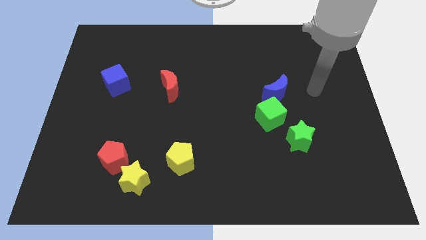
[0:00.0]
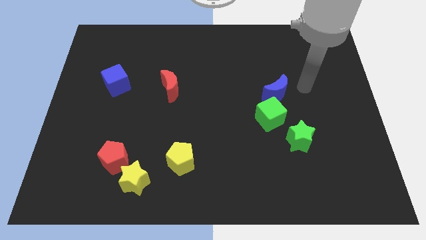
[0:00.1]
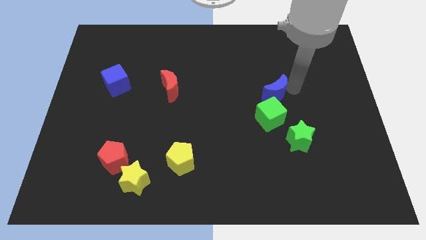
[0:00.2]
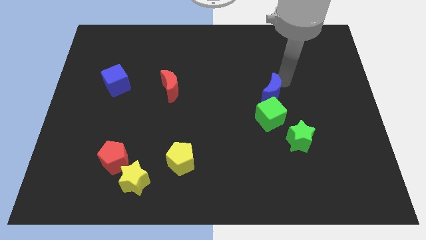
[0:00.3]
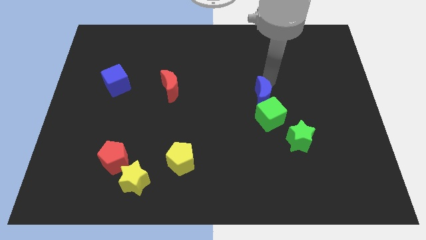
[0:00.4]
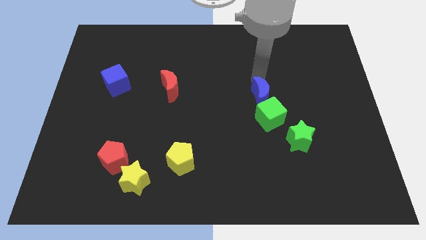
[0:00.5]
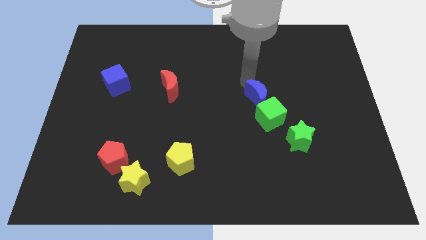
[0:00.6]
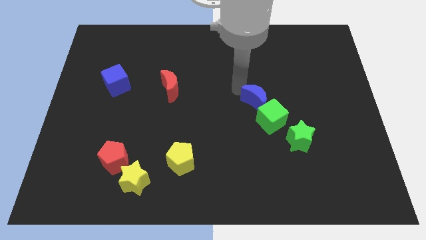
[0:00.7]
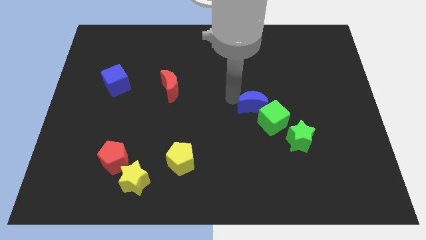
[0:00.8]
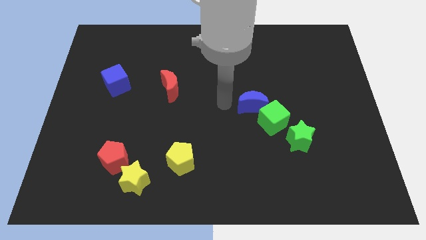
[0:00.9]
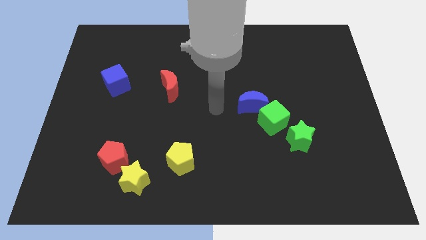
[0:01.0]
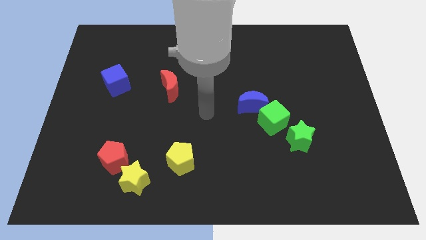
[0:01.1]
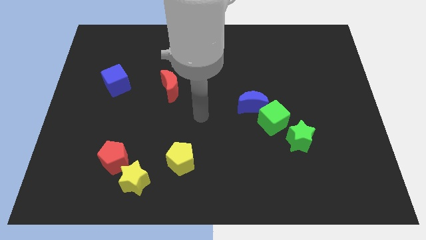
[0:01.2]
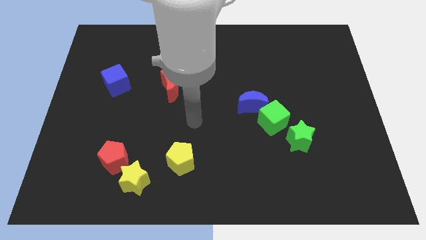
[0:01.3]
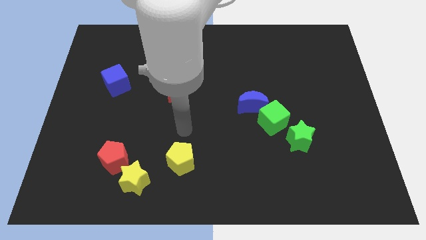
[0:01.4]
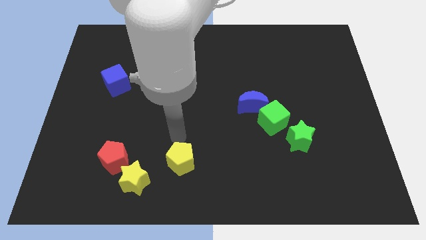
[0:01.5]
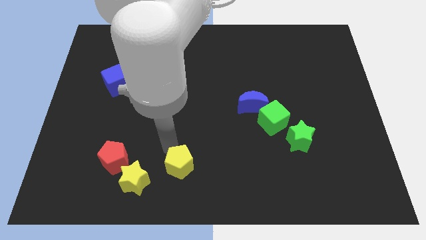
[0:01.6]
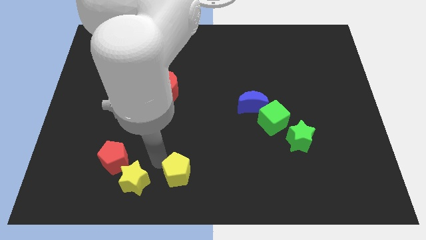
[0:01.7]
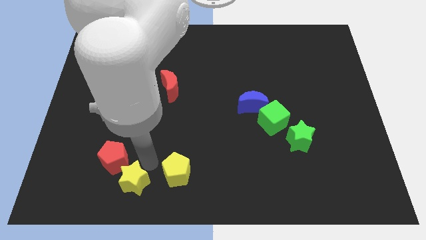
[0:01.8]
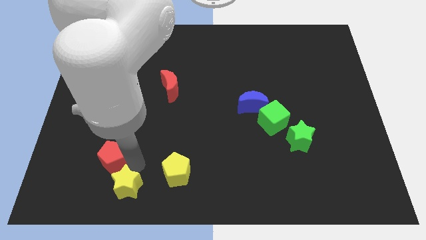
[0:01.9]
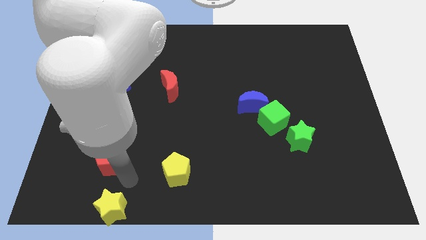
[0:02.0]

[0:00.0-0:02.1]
separate the red pentagon from the yellow star

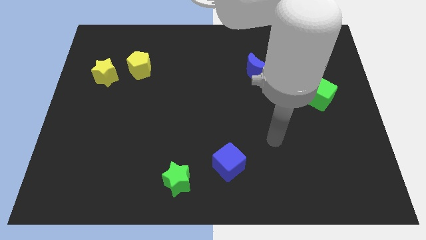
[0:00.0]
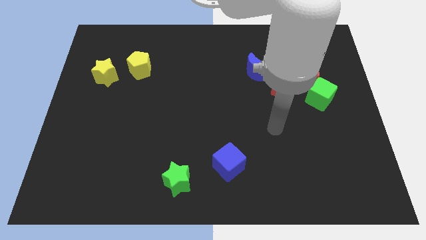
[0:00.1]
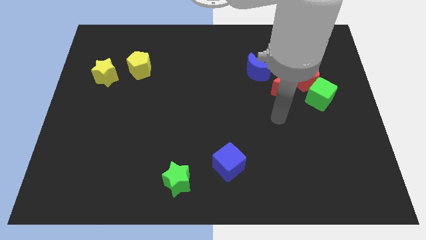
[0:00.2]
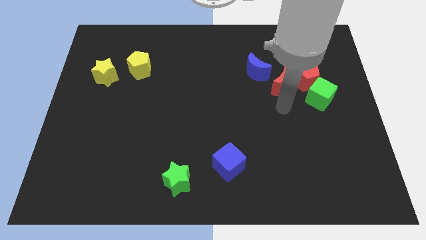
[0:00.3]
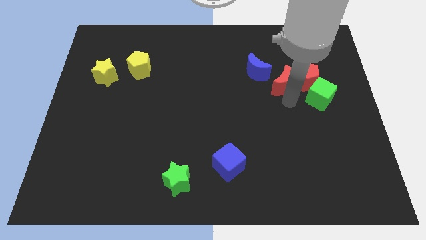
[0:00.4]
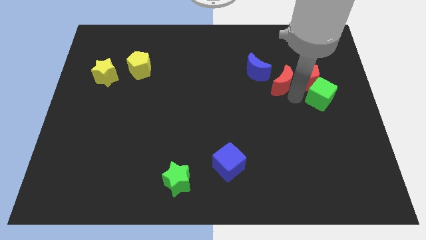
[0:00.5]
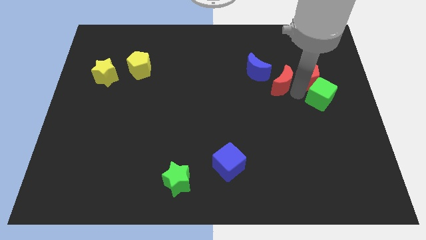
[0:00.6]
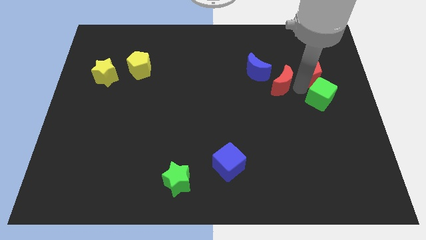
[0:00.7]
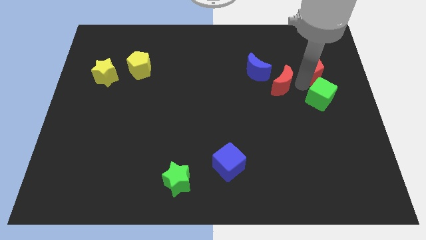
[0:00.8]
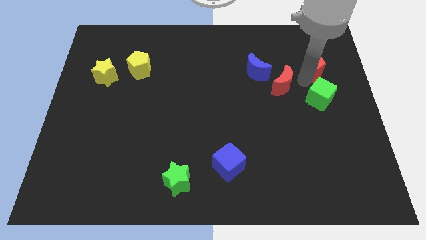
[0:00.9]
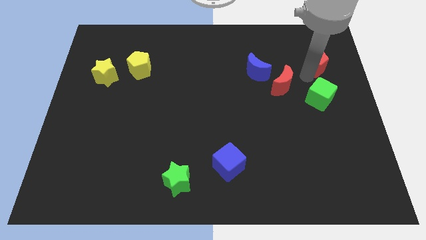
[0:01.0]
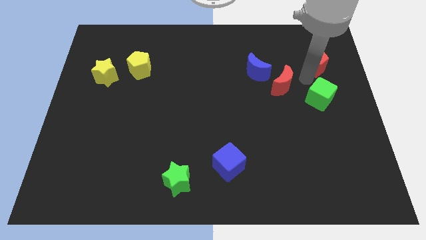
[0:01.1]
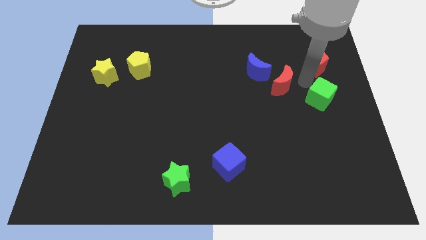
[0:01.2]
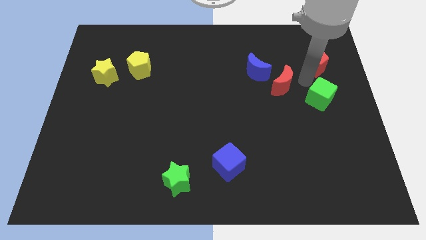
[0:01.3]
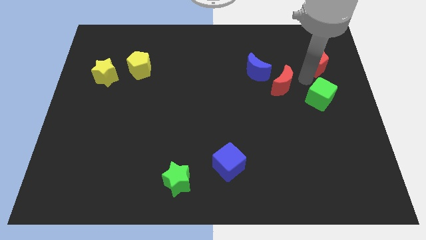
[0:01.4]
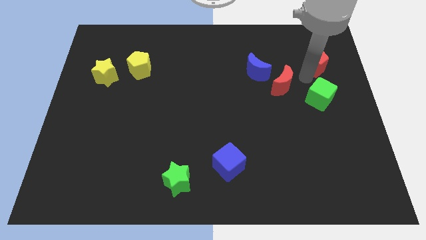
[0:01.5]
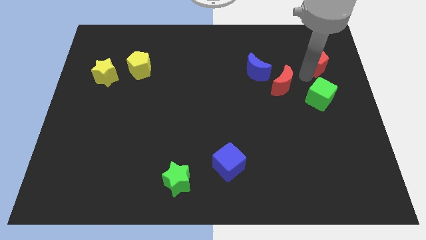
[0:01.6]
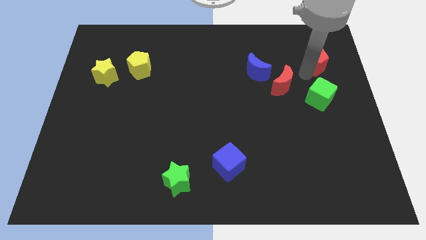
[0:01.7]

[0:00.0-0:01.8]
move the red pentagon away from the red moon and green cube

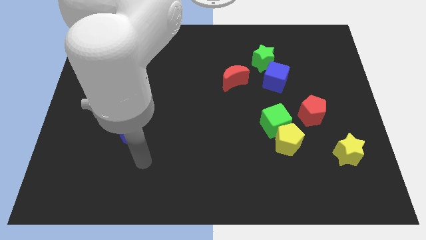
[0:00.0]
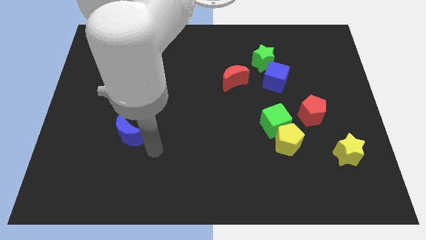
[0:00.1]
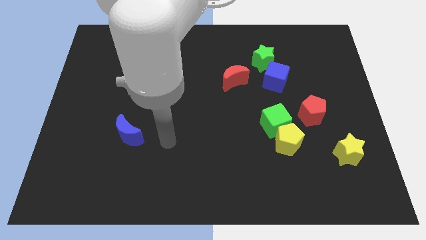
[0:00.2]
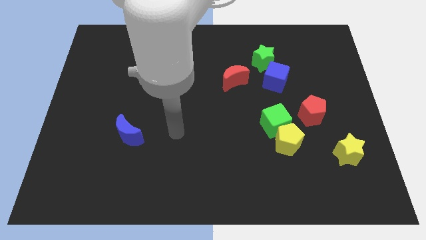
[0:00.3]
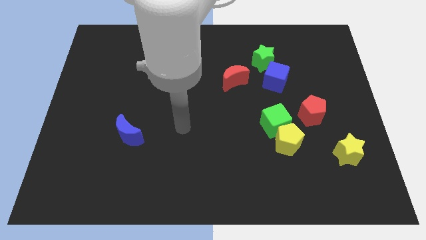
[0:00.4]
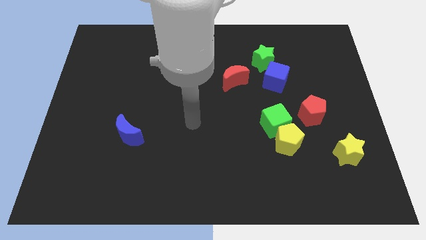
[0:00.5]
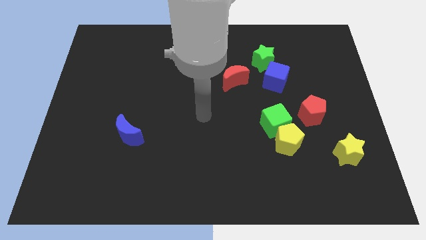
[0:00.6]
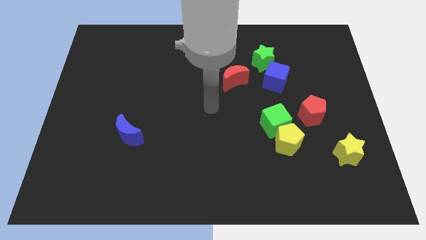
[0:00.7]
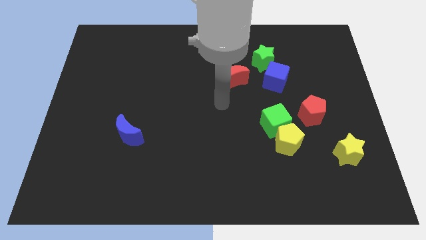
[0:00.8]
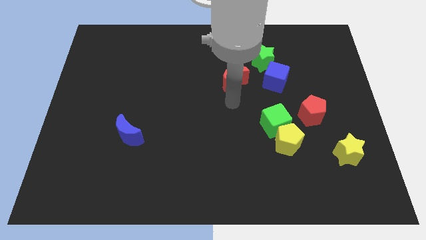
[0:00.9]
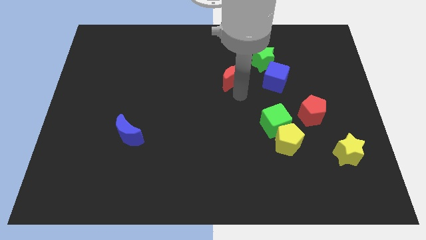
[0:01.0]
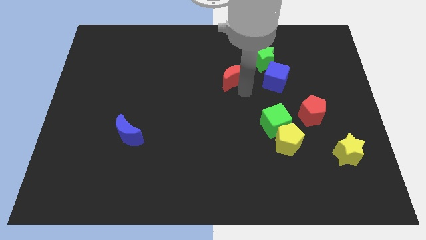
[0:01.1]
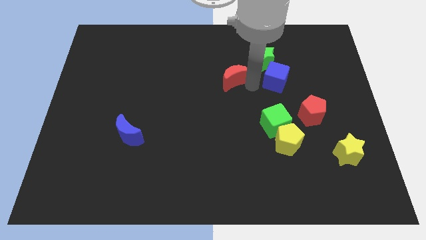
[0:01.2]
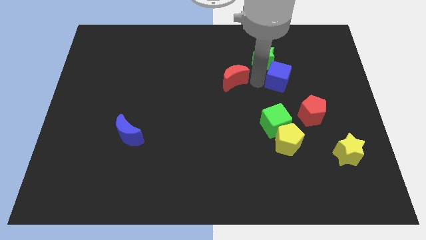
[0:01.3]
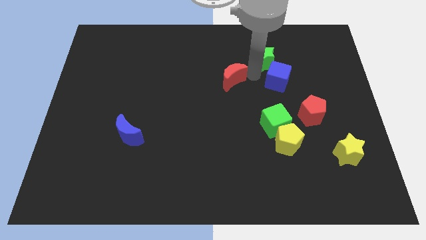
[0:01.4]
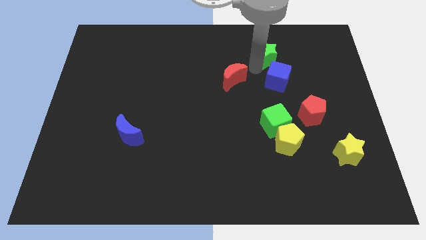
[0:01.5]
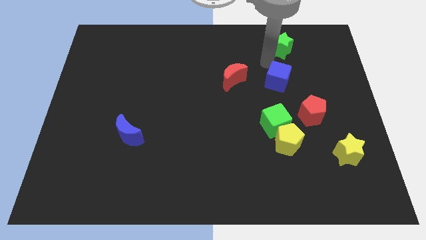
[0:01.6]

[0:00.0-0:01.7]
separate the blue cube from the green star

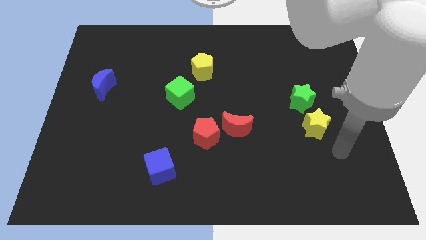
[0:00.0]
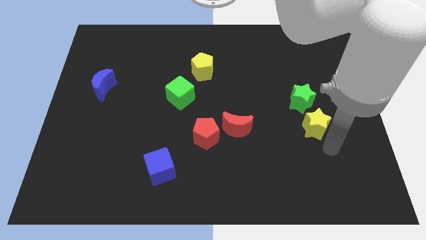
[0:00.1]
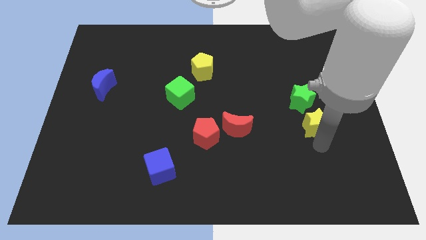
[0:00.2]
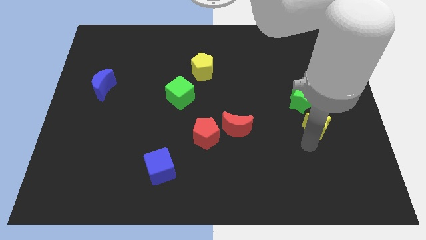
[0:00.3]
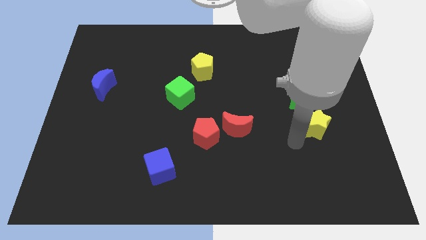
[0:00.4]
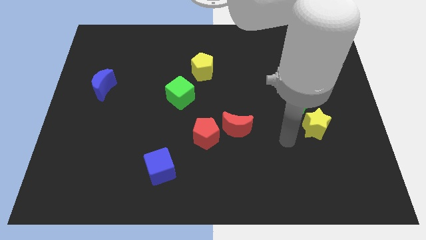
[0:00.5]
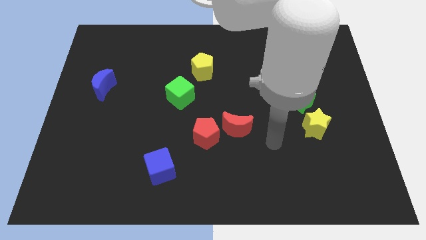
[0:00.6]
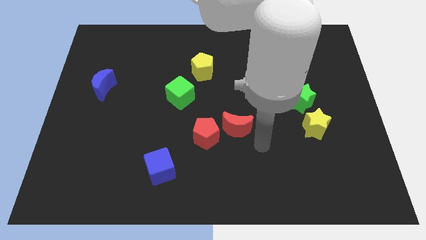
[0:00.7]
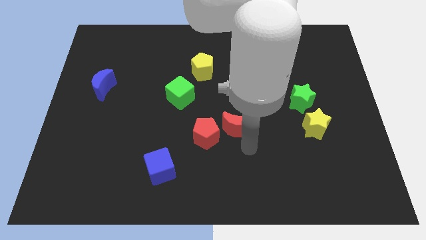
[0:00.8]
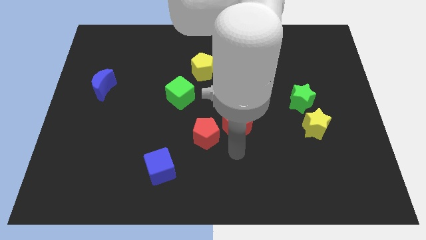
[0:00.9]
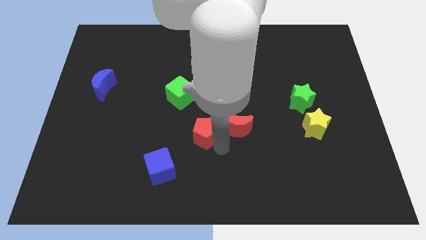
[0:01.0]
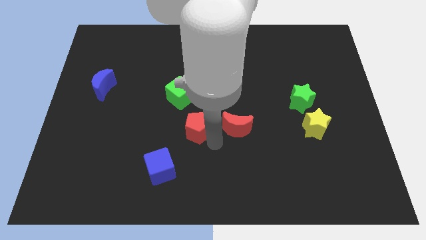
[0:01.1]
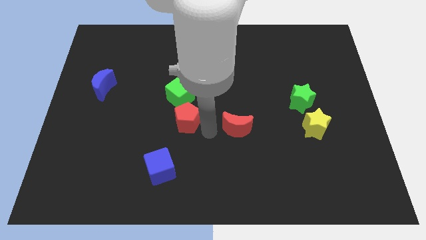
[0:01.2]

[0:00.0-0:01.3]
separate the red moon from the red pentagon

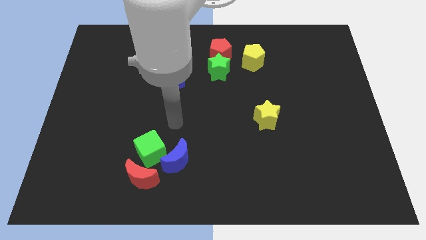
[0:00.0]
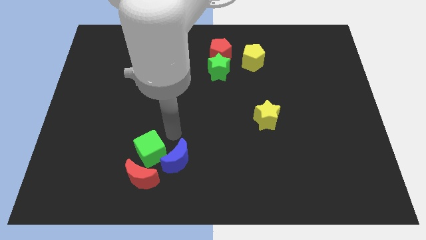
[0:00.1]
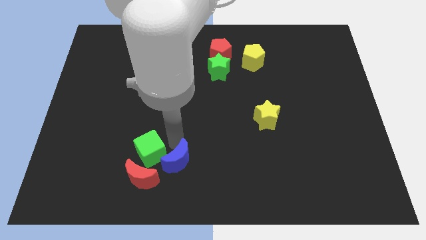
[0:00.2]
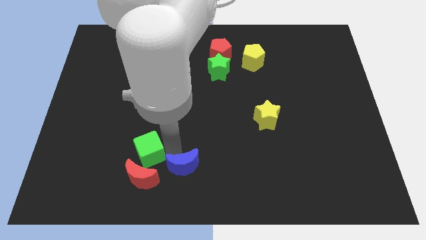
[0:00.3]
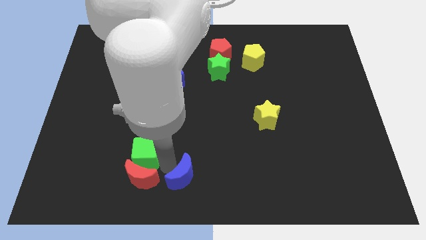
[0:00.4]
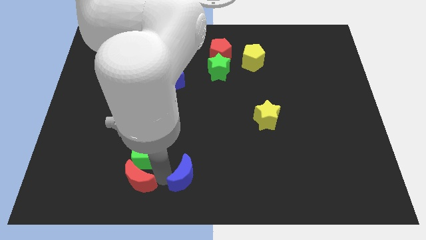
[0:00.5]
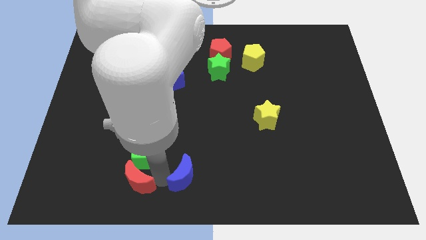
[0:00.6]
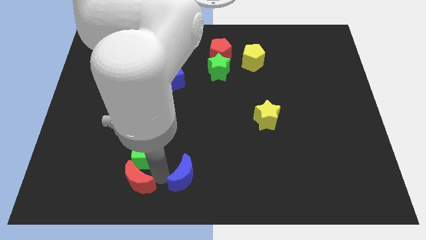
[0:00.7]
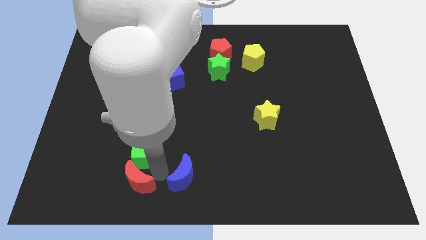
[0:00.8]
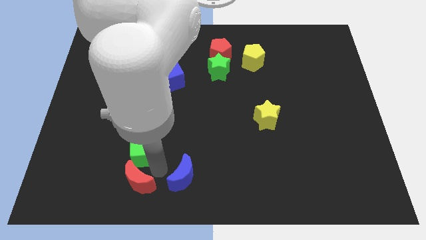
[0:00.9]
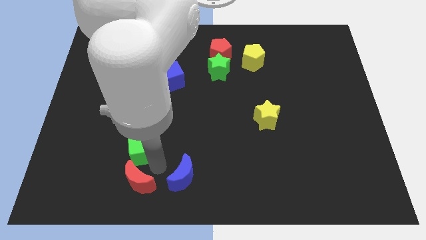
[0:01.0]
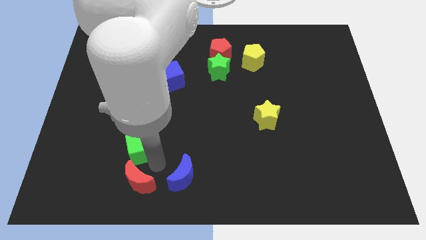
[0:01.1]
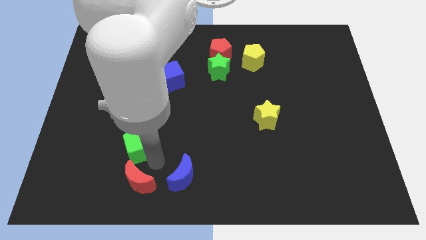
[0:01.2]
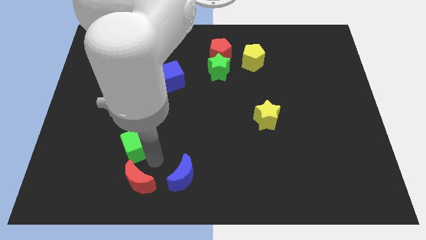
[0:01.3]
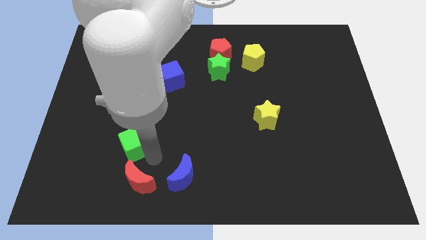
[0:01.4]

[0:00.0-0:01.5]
separate the green cube from the blue moon and red moon

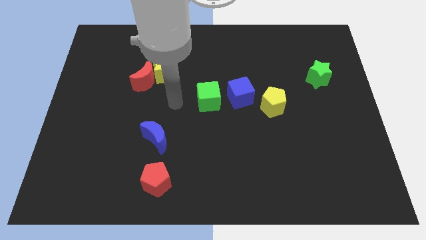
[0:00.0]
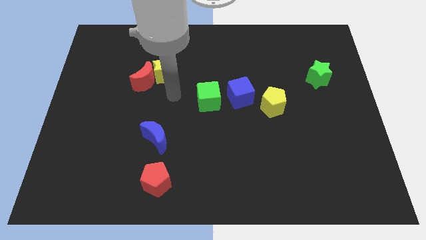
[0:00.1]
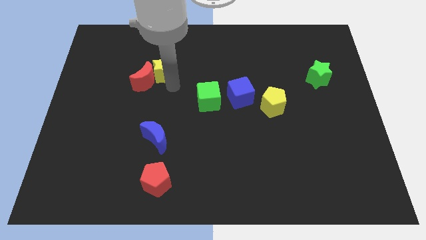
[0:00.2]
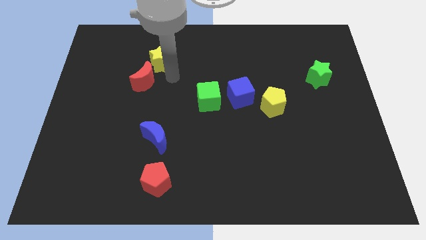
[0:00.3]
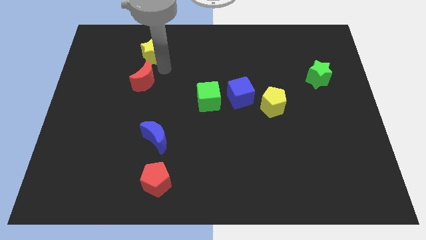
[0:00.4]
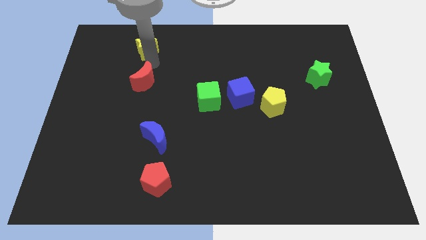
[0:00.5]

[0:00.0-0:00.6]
separate the red moon from the yellow star

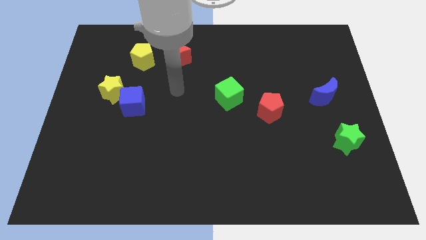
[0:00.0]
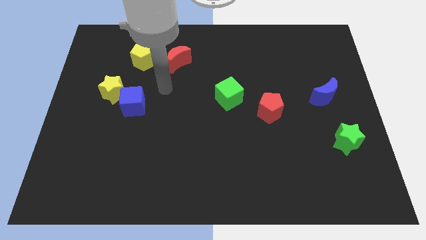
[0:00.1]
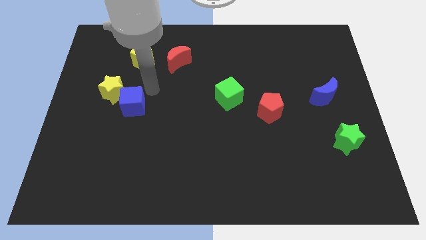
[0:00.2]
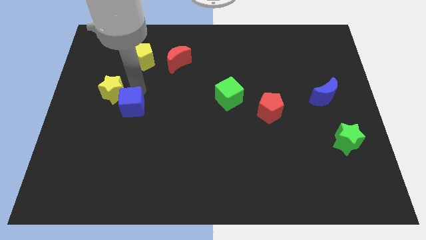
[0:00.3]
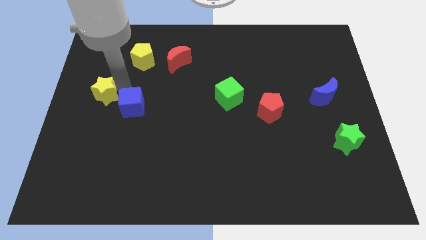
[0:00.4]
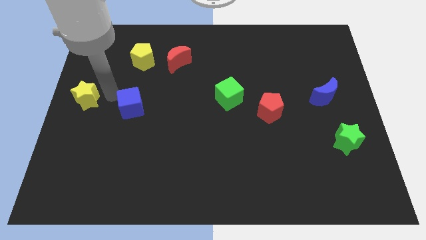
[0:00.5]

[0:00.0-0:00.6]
pull the blue cube apart from the yellow star
